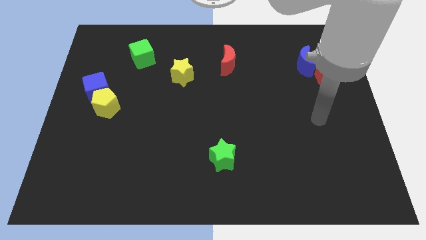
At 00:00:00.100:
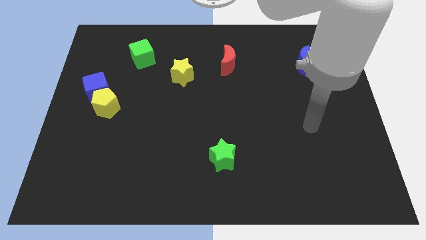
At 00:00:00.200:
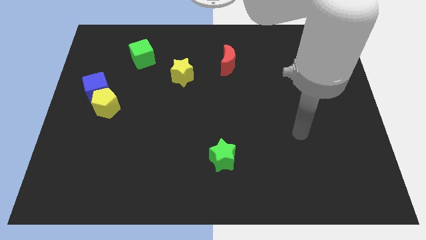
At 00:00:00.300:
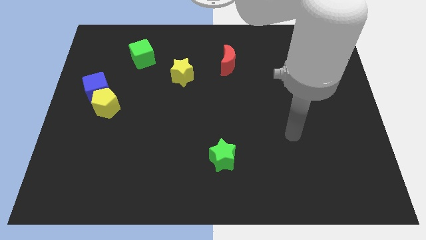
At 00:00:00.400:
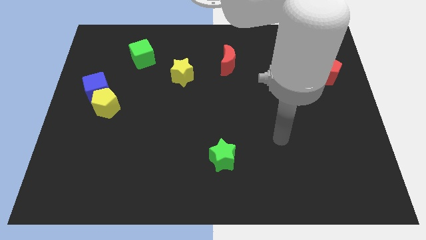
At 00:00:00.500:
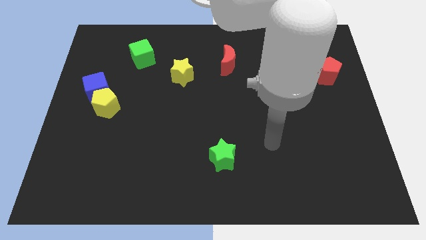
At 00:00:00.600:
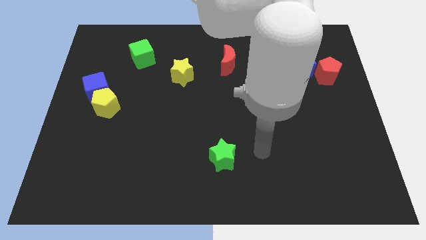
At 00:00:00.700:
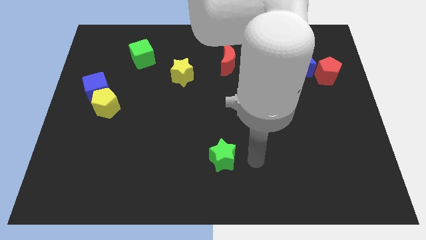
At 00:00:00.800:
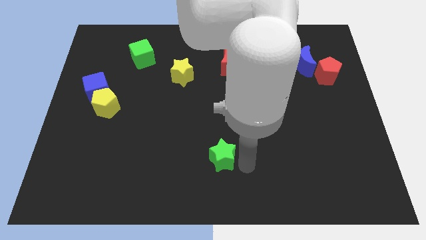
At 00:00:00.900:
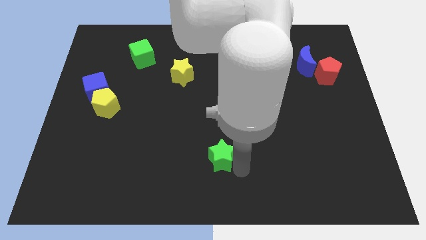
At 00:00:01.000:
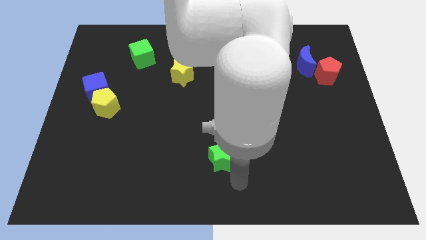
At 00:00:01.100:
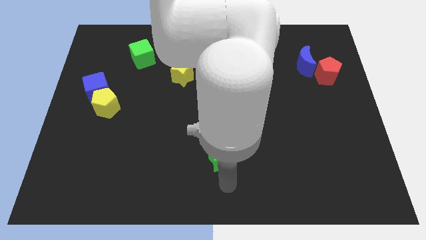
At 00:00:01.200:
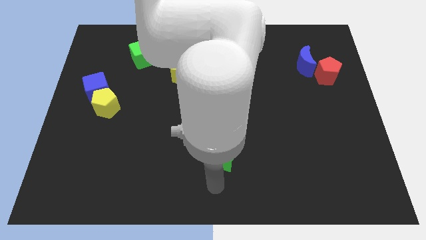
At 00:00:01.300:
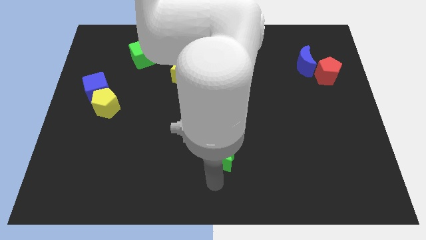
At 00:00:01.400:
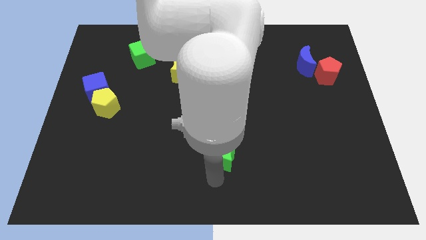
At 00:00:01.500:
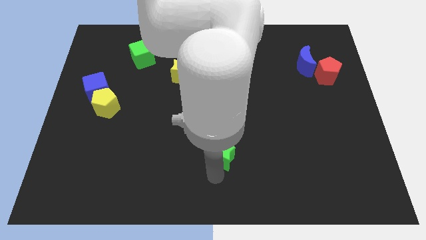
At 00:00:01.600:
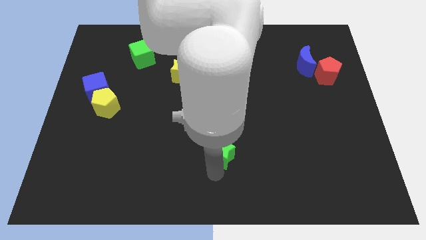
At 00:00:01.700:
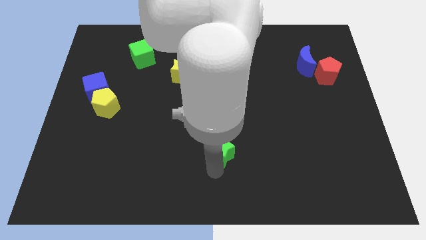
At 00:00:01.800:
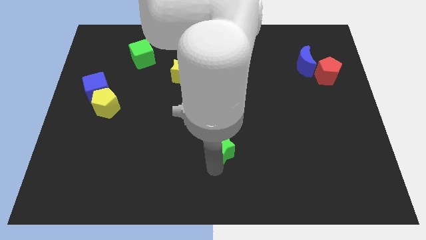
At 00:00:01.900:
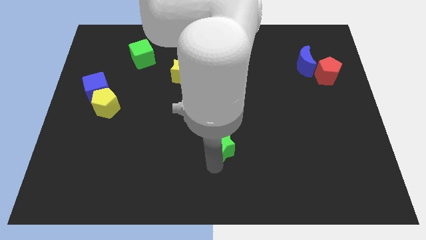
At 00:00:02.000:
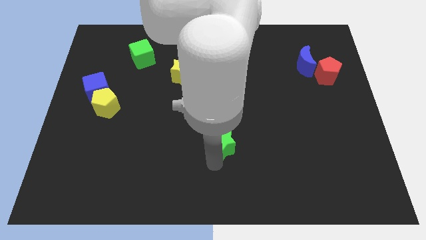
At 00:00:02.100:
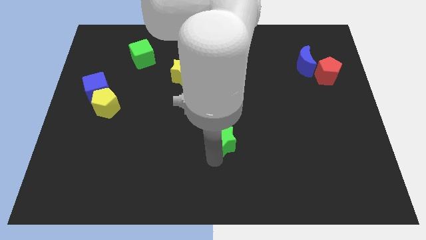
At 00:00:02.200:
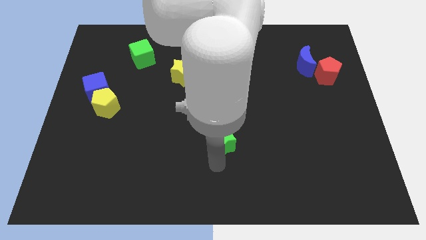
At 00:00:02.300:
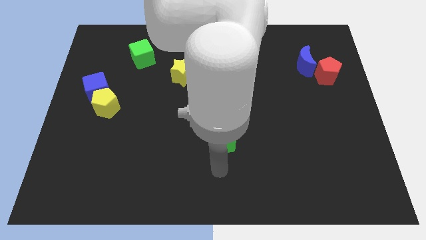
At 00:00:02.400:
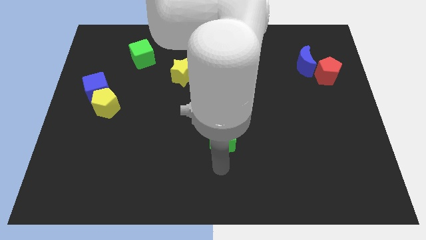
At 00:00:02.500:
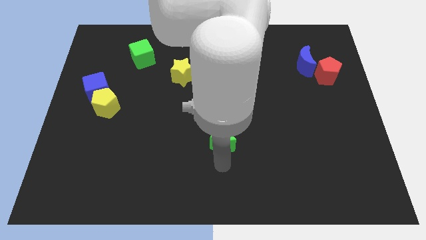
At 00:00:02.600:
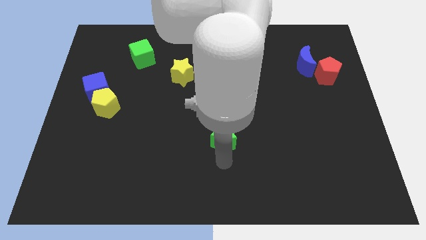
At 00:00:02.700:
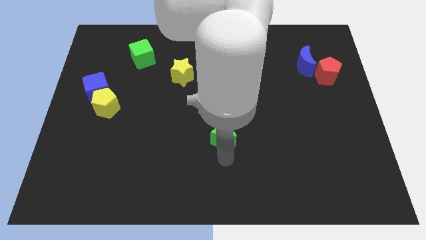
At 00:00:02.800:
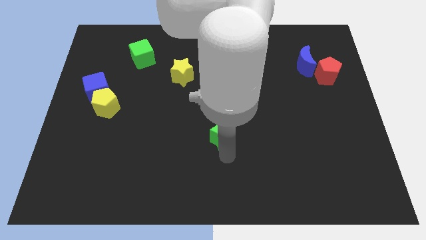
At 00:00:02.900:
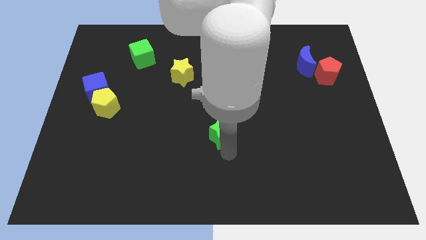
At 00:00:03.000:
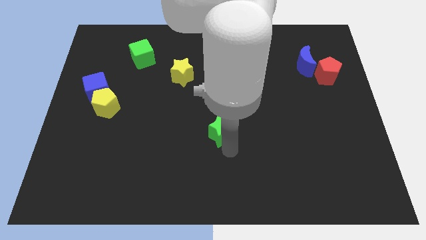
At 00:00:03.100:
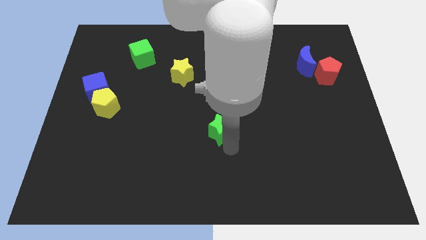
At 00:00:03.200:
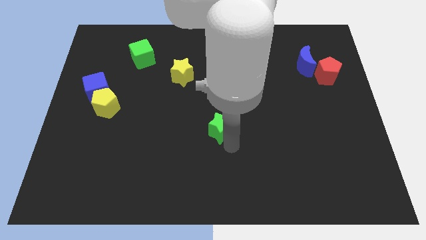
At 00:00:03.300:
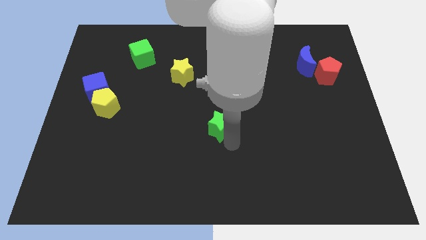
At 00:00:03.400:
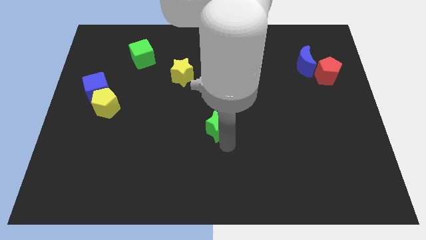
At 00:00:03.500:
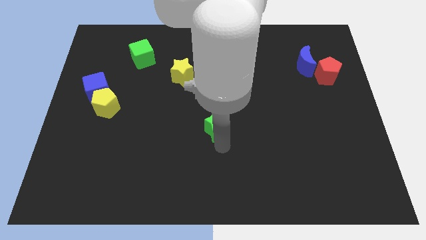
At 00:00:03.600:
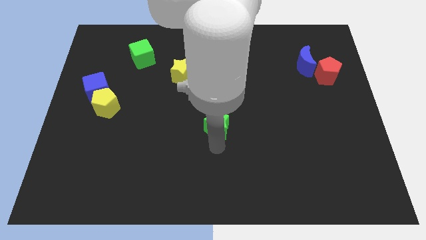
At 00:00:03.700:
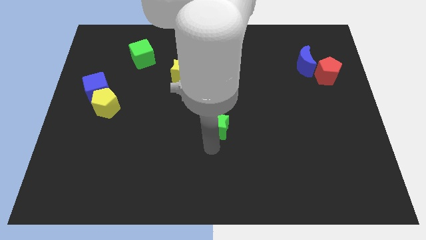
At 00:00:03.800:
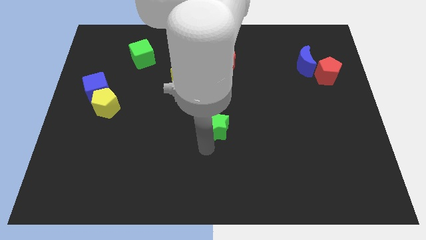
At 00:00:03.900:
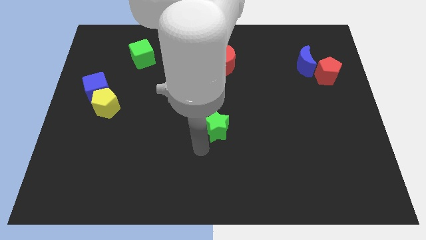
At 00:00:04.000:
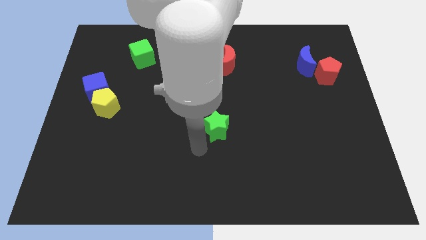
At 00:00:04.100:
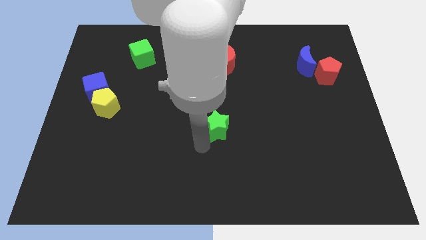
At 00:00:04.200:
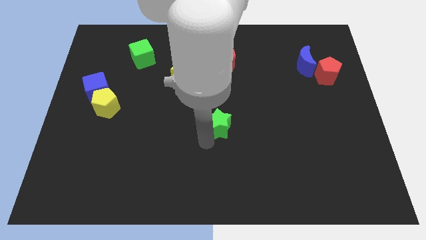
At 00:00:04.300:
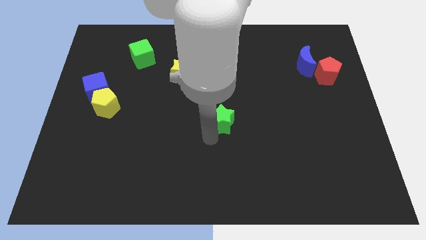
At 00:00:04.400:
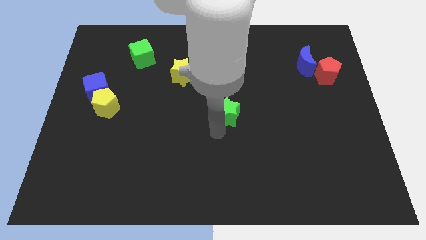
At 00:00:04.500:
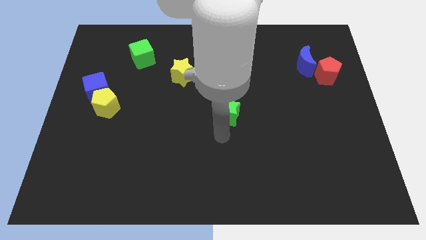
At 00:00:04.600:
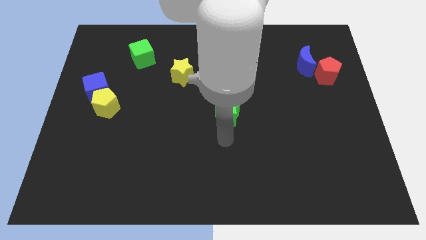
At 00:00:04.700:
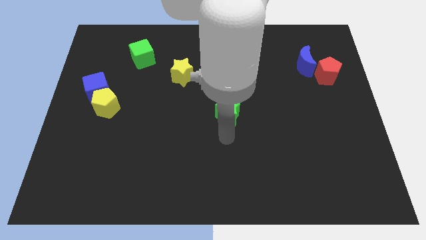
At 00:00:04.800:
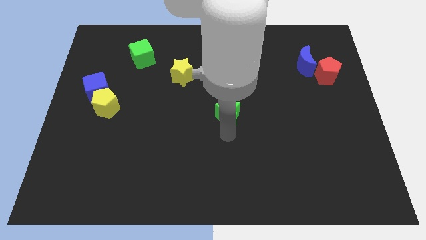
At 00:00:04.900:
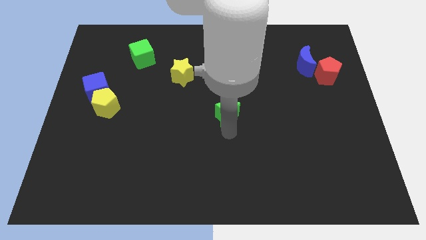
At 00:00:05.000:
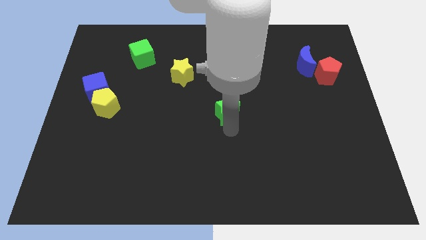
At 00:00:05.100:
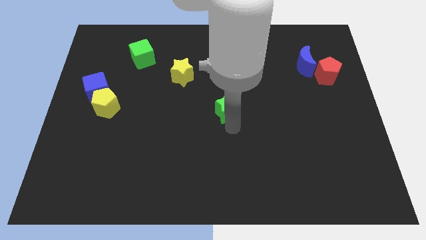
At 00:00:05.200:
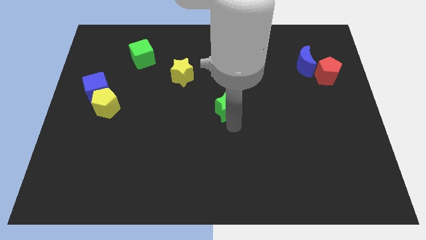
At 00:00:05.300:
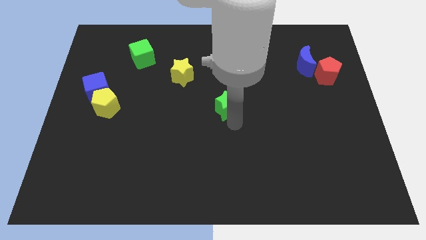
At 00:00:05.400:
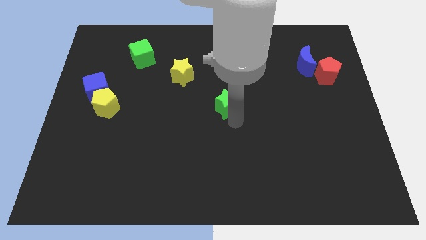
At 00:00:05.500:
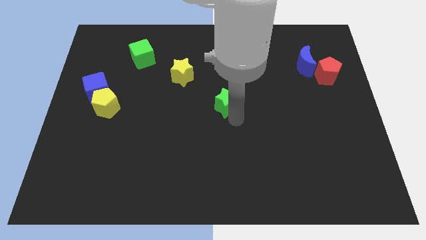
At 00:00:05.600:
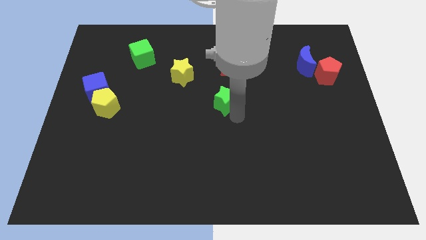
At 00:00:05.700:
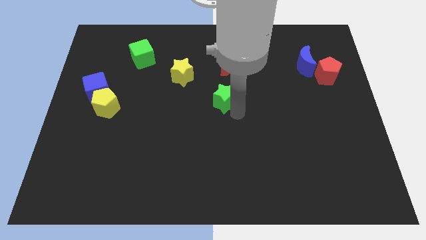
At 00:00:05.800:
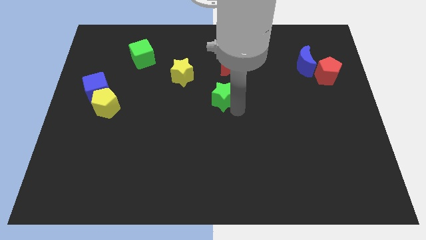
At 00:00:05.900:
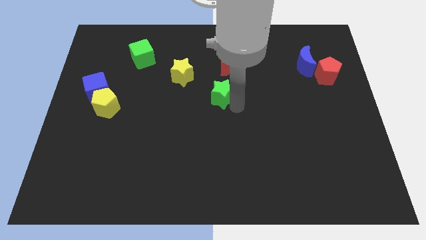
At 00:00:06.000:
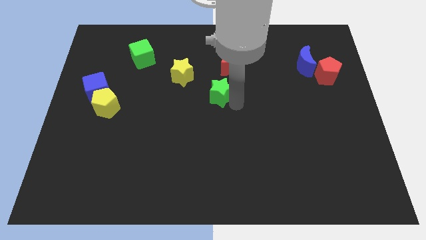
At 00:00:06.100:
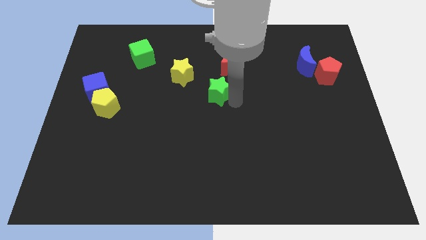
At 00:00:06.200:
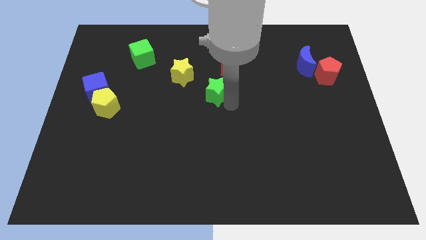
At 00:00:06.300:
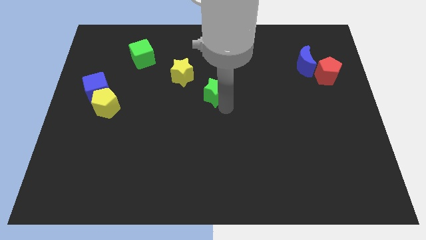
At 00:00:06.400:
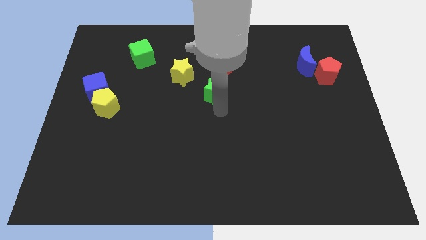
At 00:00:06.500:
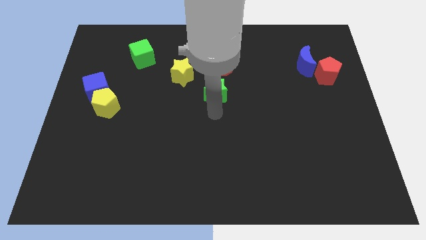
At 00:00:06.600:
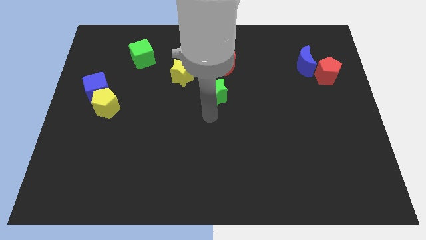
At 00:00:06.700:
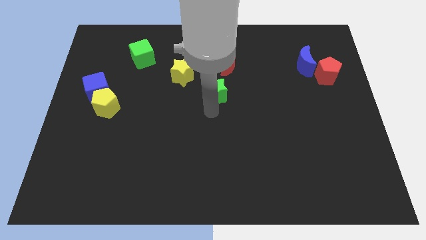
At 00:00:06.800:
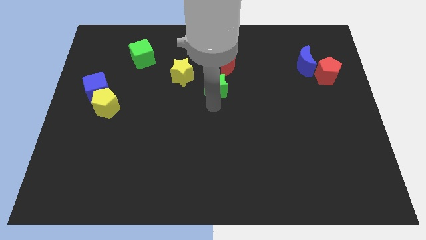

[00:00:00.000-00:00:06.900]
slide the green star right of the yellow star
